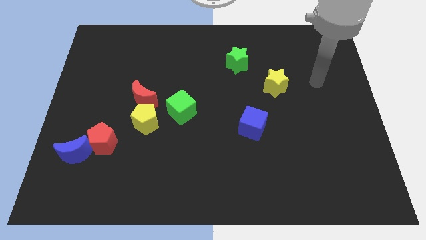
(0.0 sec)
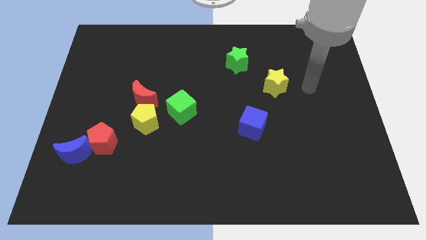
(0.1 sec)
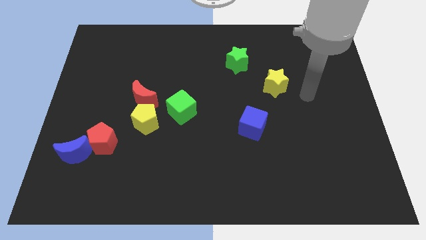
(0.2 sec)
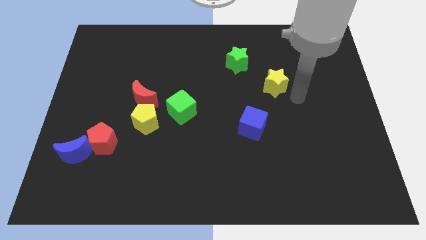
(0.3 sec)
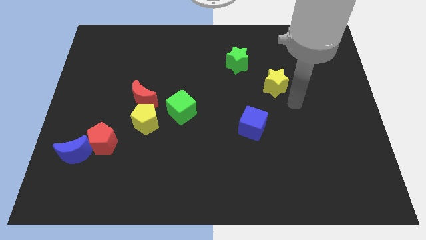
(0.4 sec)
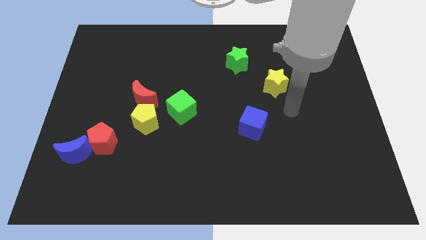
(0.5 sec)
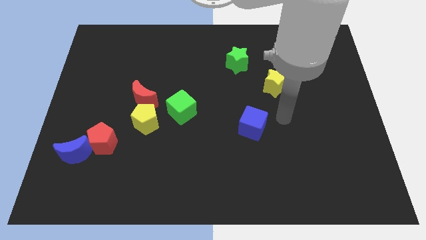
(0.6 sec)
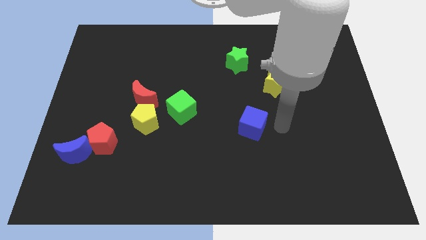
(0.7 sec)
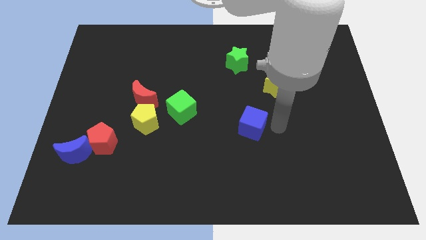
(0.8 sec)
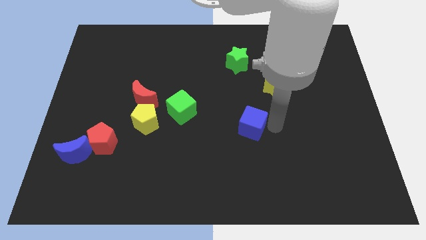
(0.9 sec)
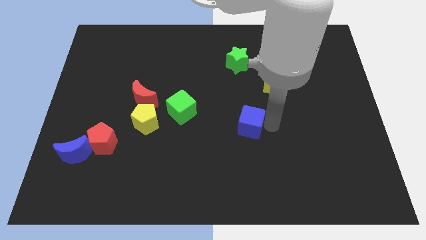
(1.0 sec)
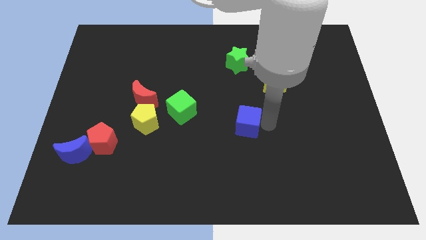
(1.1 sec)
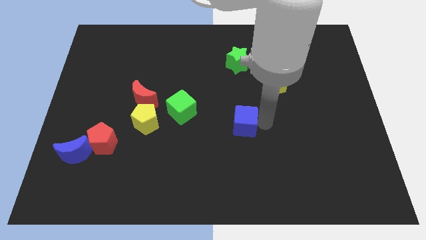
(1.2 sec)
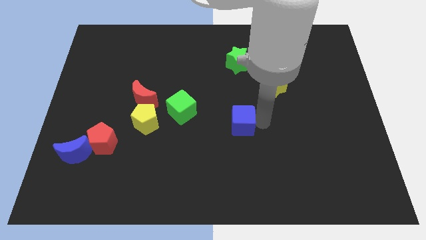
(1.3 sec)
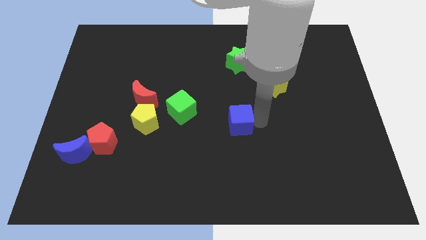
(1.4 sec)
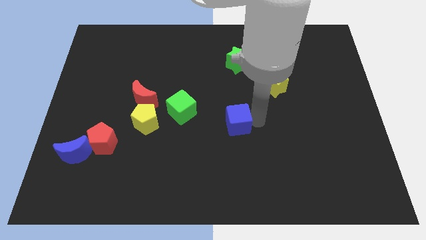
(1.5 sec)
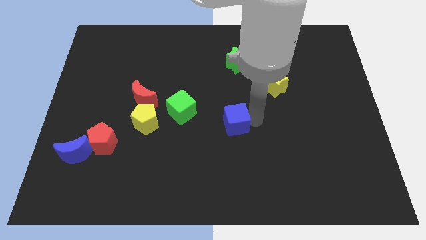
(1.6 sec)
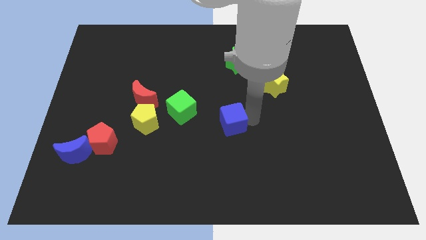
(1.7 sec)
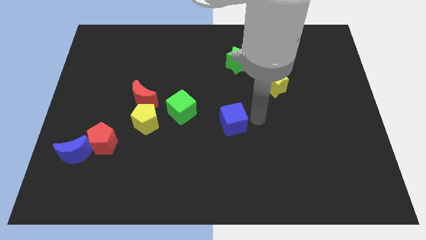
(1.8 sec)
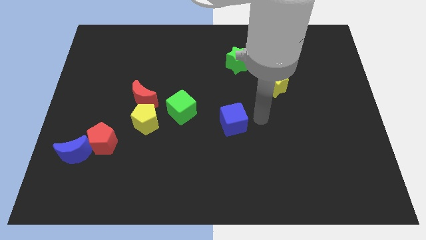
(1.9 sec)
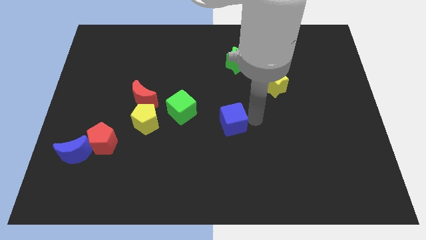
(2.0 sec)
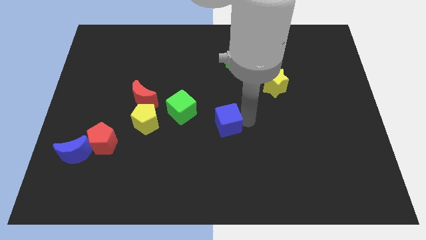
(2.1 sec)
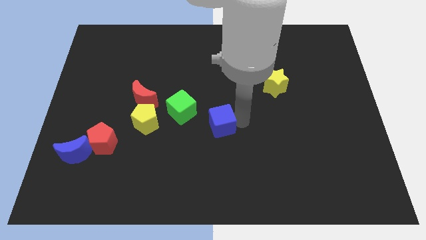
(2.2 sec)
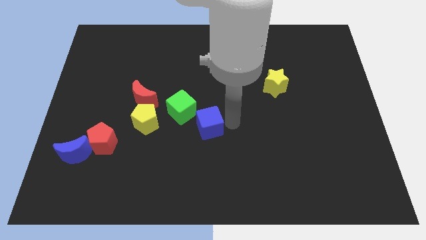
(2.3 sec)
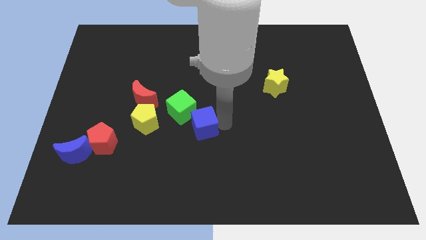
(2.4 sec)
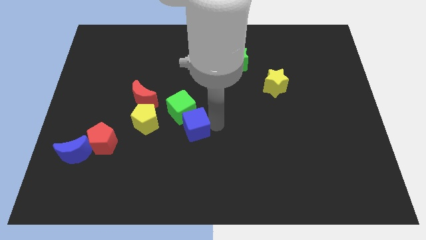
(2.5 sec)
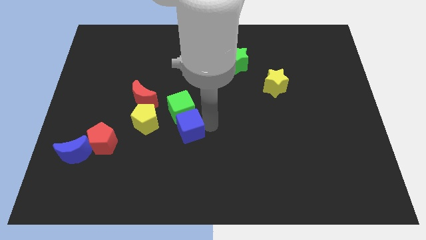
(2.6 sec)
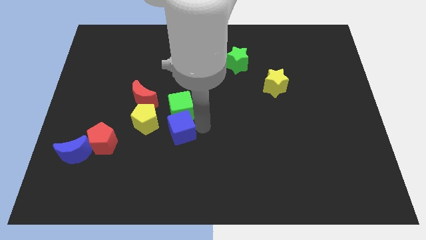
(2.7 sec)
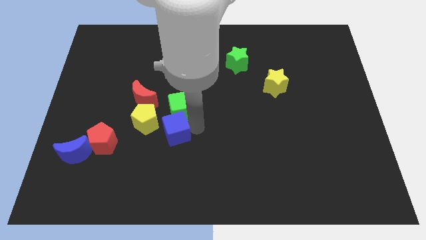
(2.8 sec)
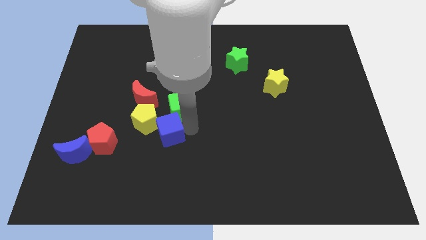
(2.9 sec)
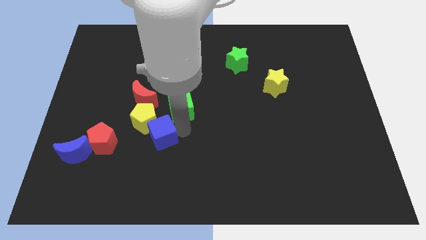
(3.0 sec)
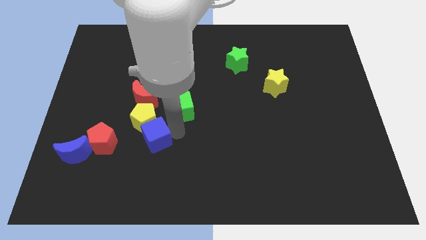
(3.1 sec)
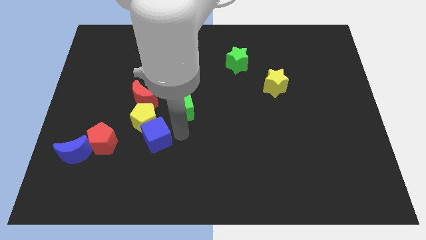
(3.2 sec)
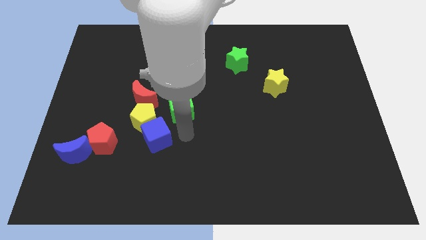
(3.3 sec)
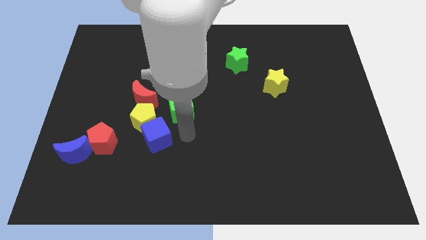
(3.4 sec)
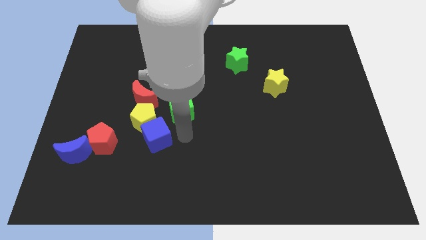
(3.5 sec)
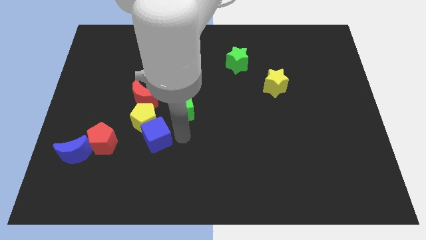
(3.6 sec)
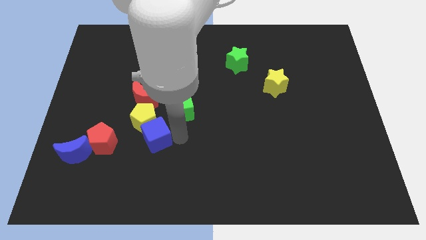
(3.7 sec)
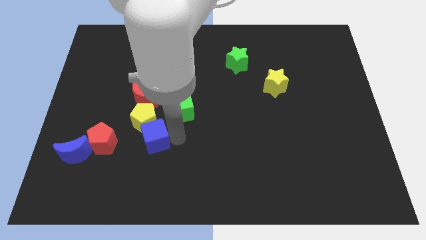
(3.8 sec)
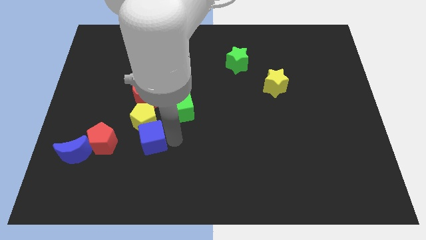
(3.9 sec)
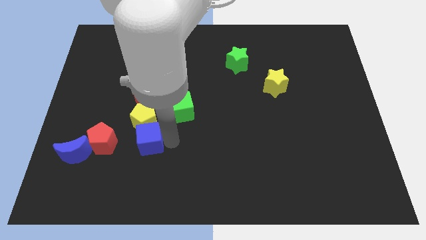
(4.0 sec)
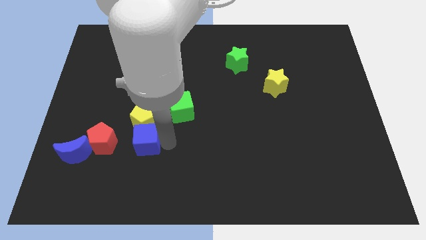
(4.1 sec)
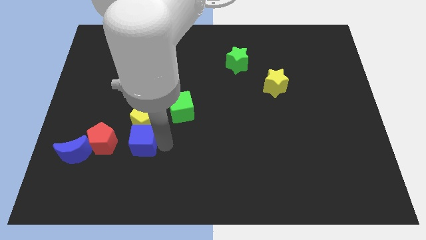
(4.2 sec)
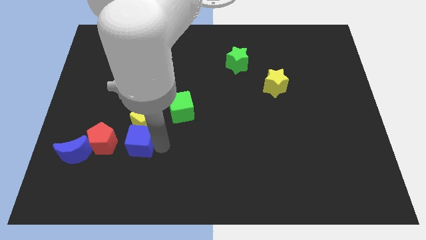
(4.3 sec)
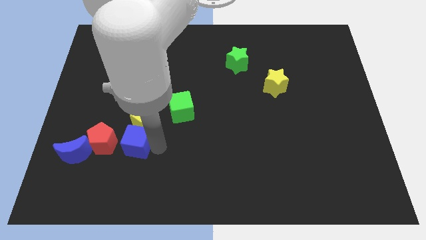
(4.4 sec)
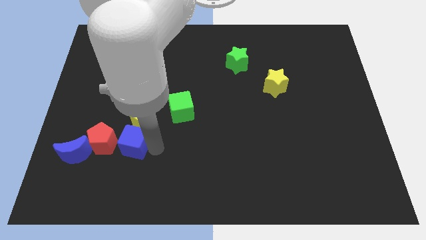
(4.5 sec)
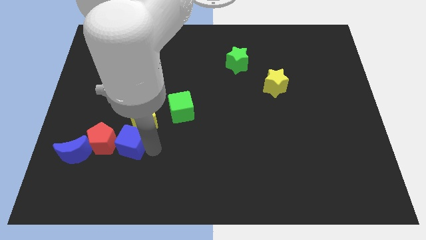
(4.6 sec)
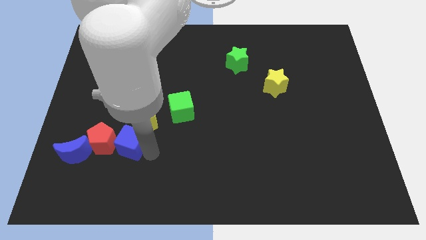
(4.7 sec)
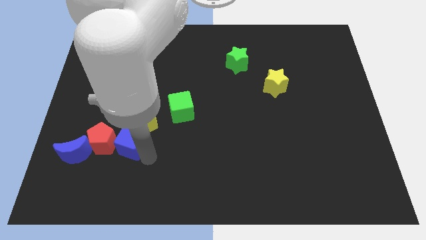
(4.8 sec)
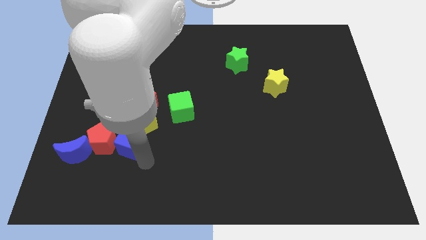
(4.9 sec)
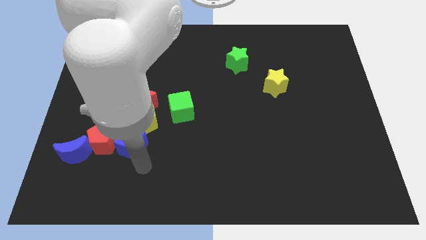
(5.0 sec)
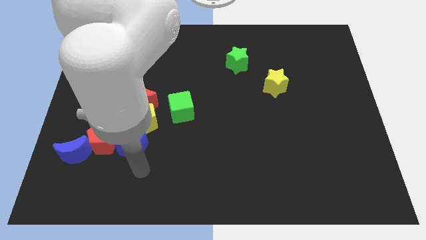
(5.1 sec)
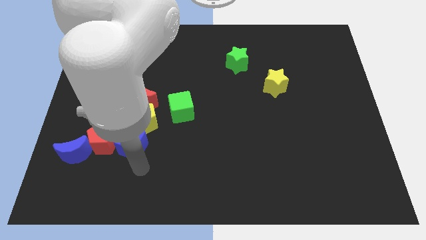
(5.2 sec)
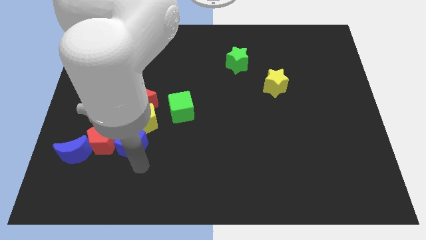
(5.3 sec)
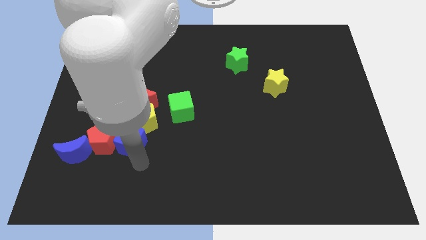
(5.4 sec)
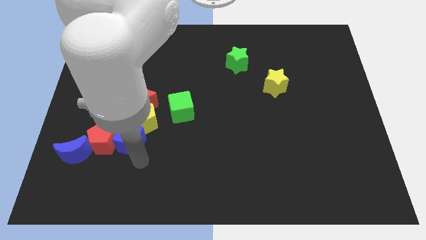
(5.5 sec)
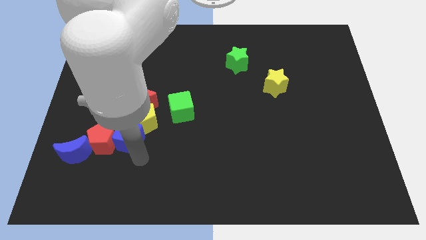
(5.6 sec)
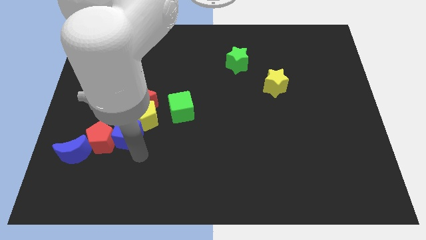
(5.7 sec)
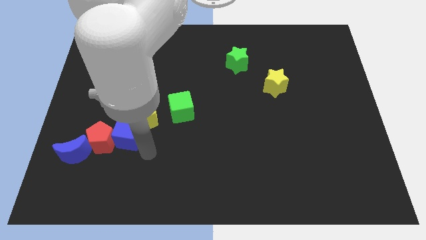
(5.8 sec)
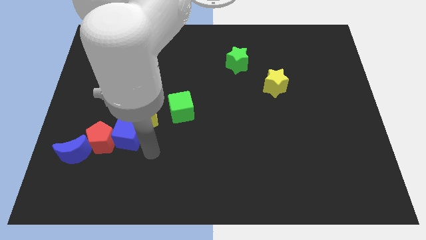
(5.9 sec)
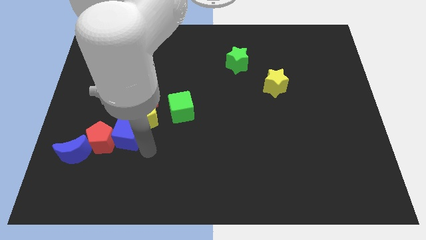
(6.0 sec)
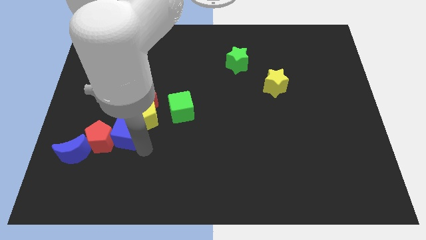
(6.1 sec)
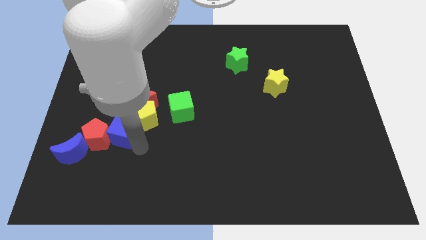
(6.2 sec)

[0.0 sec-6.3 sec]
move the blue cube left of the yellow pentagon

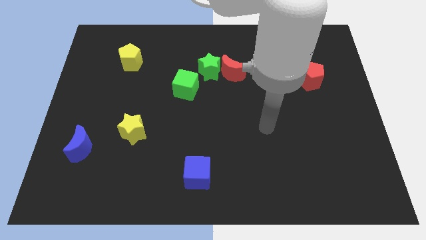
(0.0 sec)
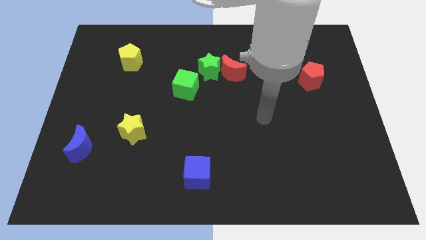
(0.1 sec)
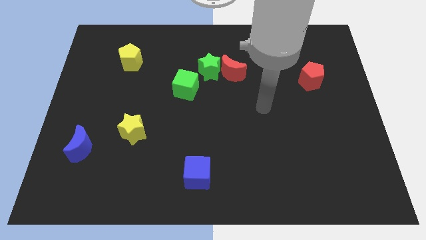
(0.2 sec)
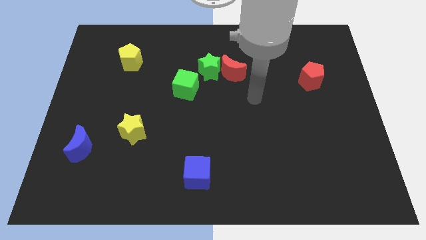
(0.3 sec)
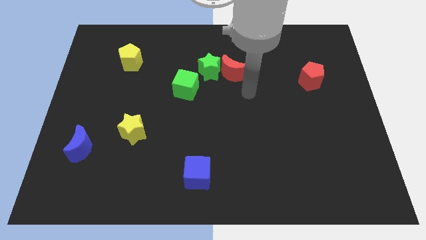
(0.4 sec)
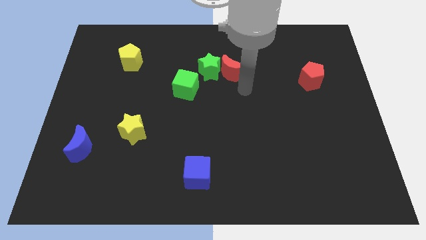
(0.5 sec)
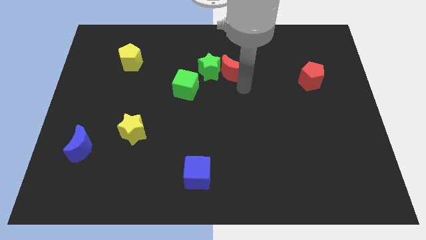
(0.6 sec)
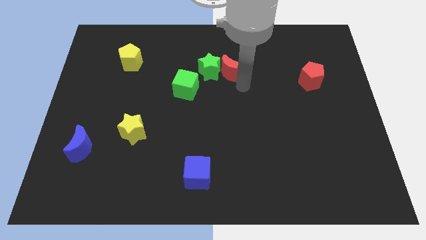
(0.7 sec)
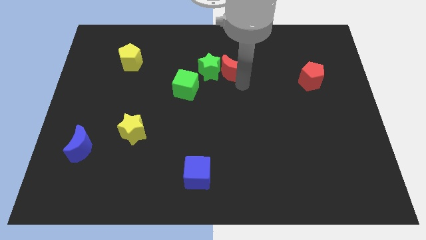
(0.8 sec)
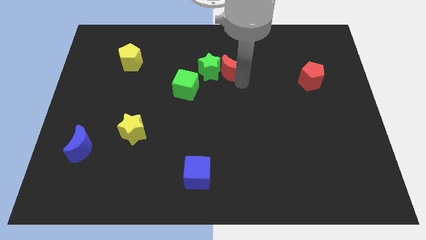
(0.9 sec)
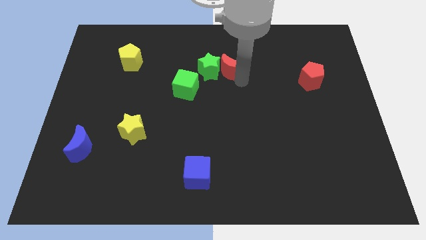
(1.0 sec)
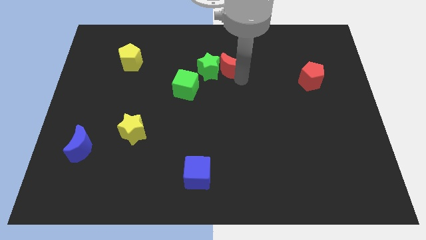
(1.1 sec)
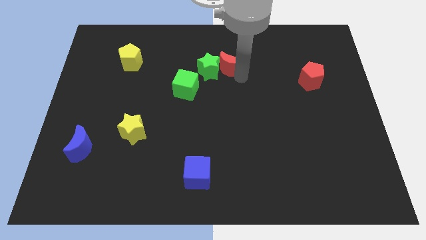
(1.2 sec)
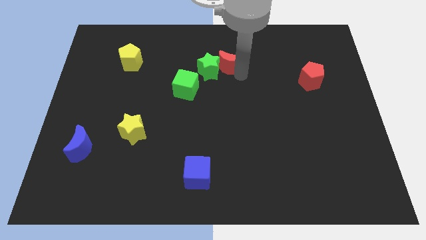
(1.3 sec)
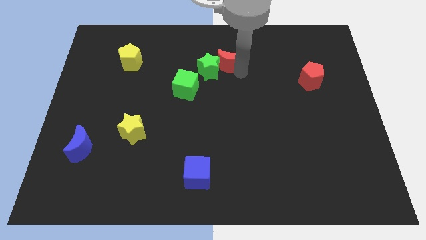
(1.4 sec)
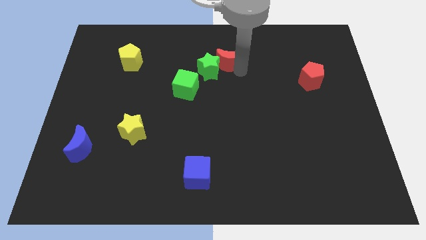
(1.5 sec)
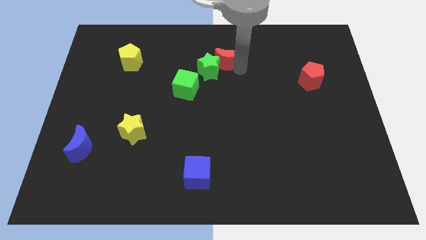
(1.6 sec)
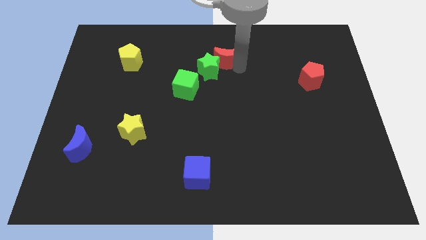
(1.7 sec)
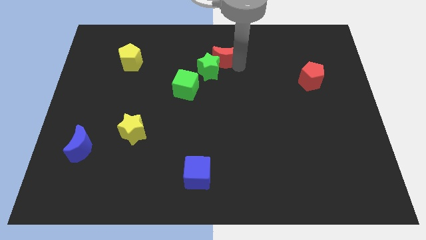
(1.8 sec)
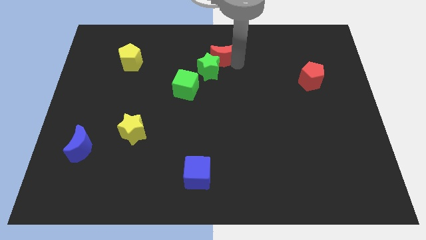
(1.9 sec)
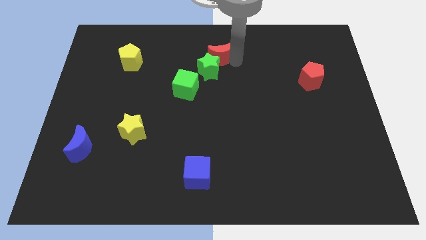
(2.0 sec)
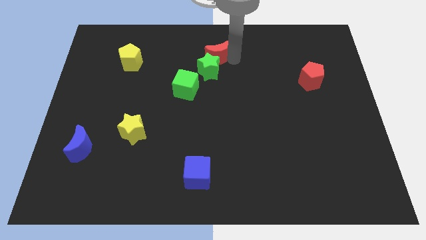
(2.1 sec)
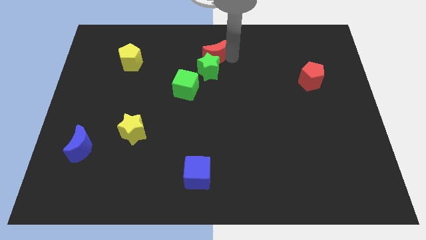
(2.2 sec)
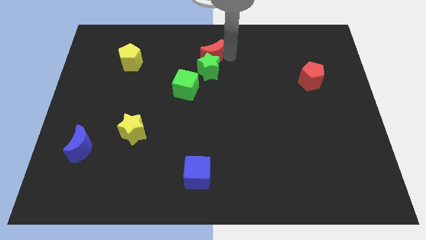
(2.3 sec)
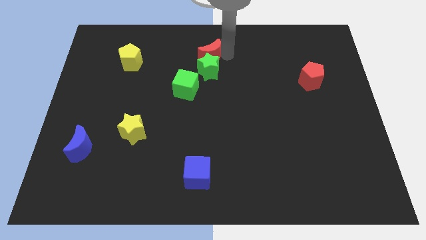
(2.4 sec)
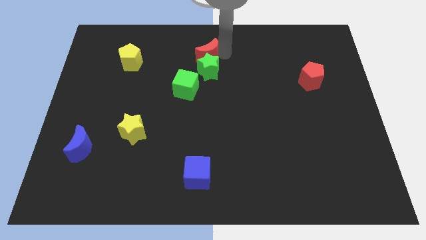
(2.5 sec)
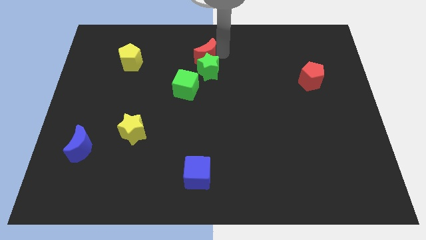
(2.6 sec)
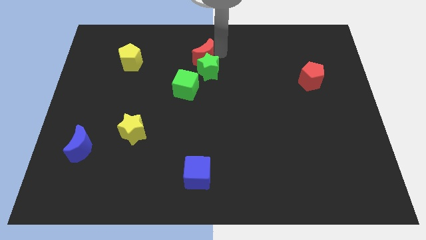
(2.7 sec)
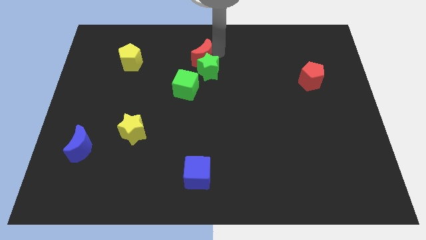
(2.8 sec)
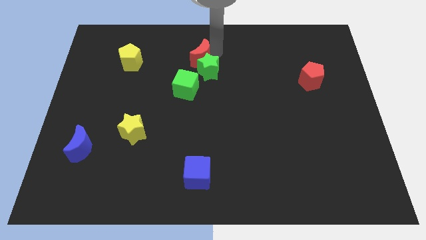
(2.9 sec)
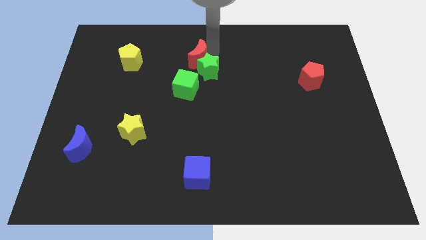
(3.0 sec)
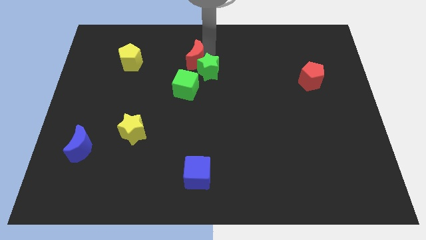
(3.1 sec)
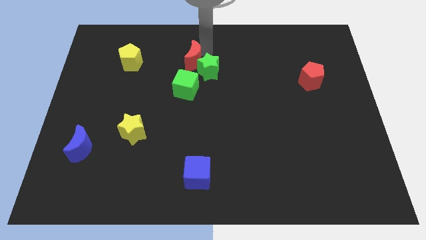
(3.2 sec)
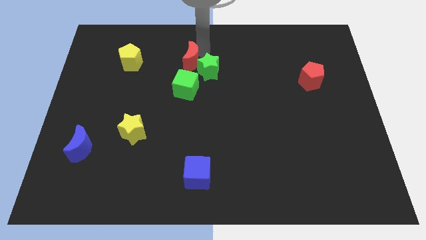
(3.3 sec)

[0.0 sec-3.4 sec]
put the red moon right of the yellow pentagon
